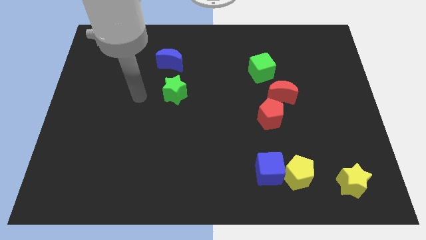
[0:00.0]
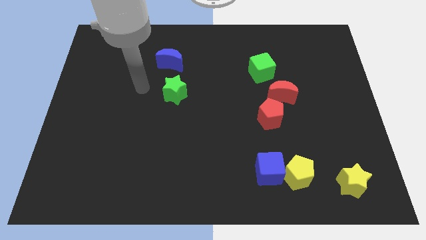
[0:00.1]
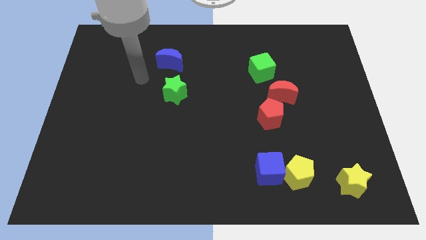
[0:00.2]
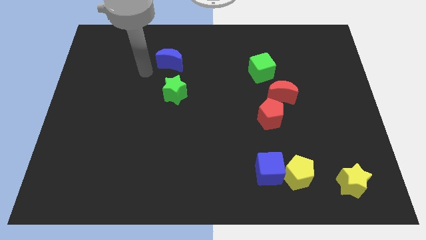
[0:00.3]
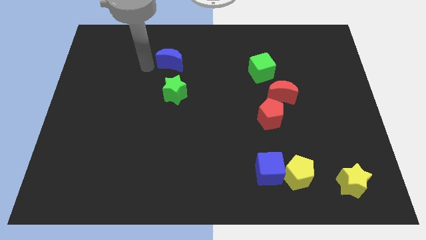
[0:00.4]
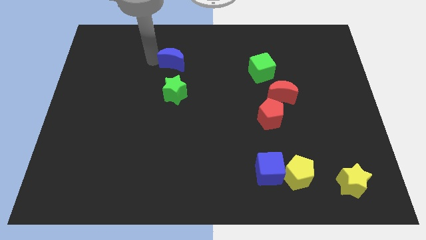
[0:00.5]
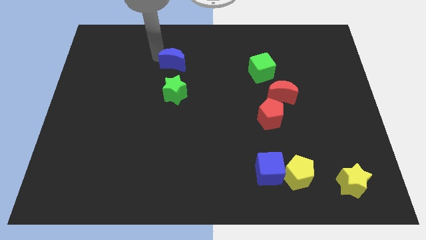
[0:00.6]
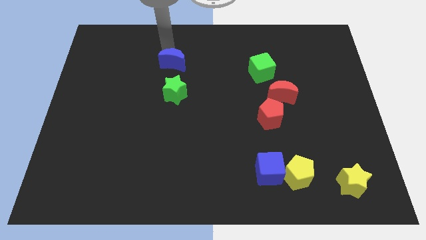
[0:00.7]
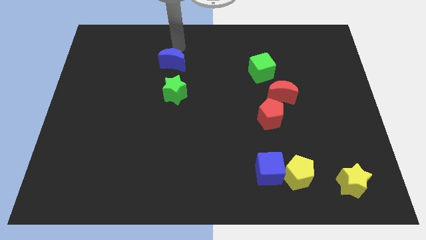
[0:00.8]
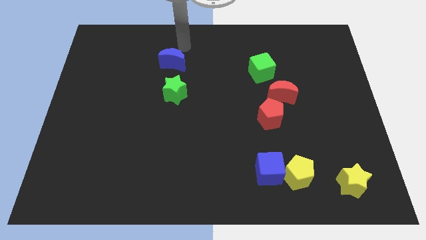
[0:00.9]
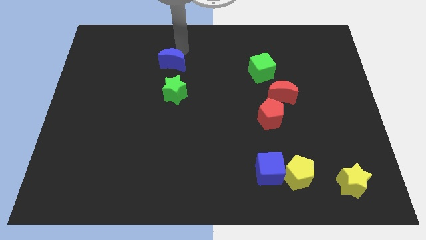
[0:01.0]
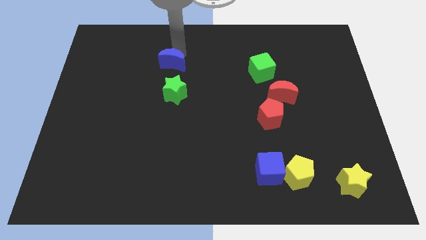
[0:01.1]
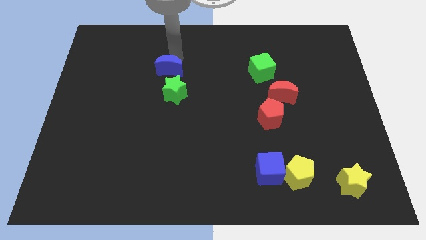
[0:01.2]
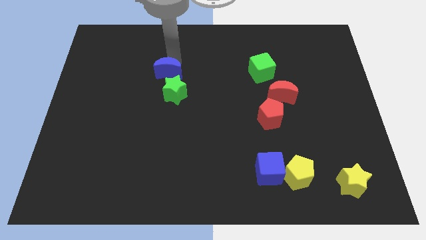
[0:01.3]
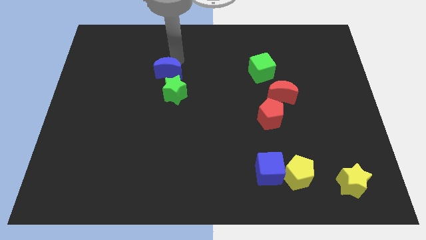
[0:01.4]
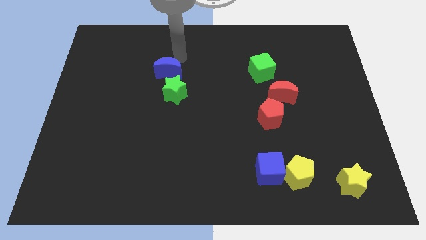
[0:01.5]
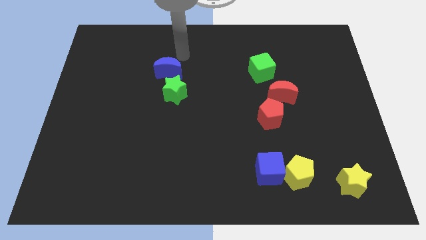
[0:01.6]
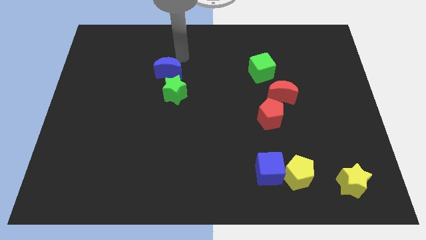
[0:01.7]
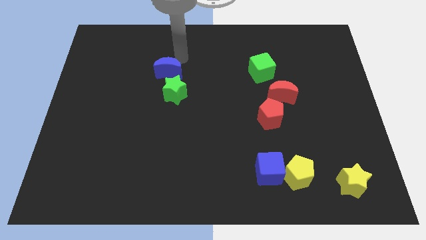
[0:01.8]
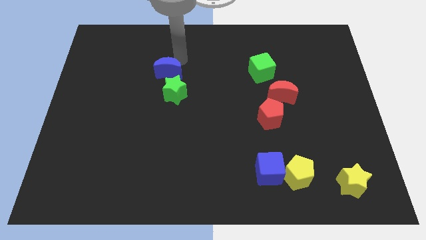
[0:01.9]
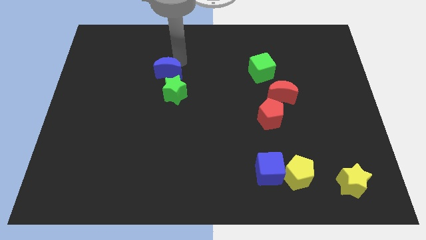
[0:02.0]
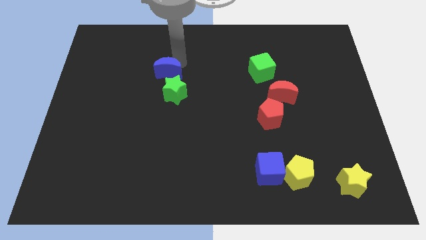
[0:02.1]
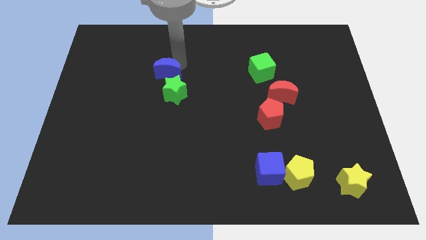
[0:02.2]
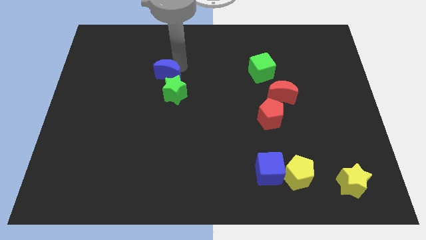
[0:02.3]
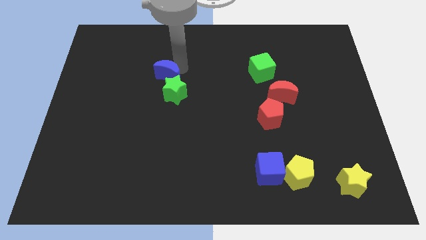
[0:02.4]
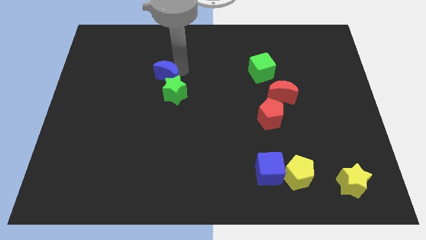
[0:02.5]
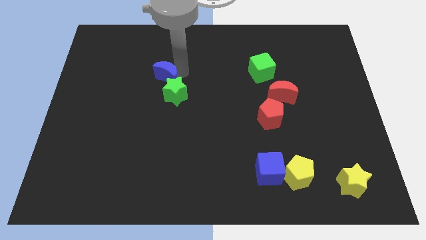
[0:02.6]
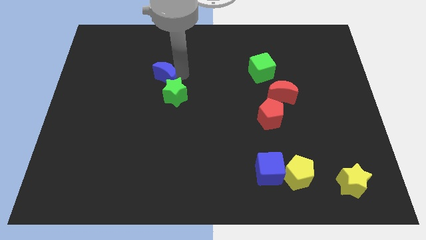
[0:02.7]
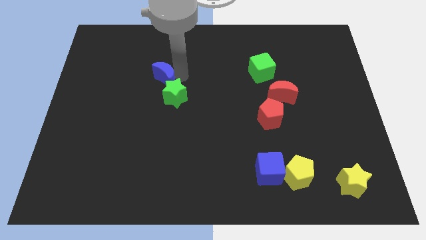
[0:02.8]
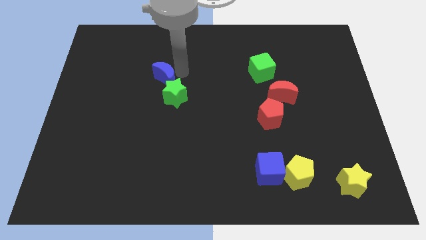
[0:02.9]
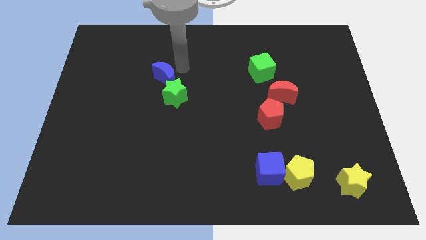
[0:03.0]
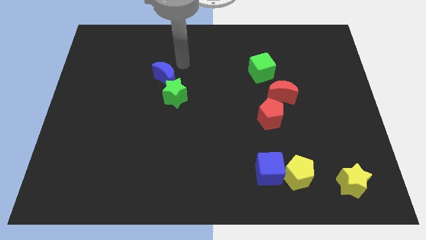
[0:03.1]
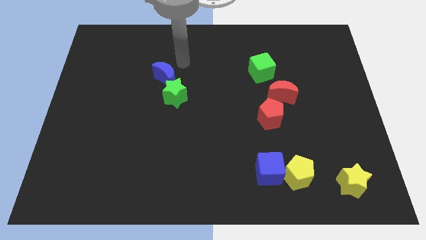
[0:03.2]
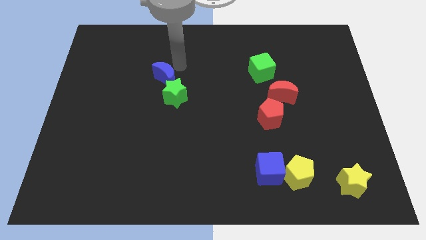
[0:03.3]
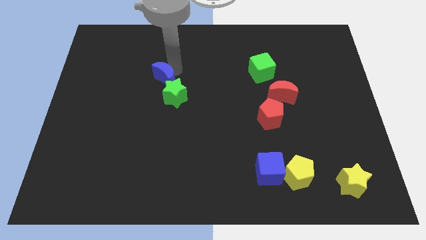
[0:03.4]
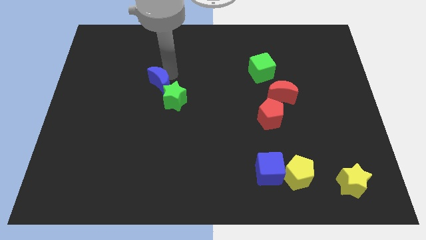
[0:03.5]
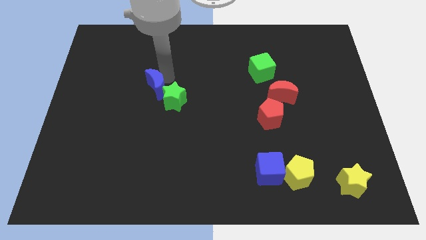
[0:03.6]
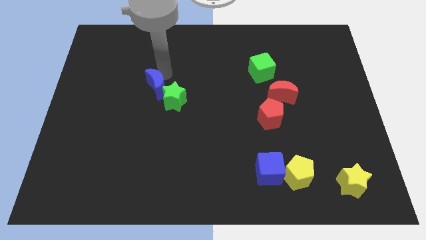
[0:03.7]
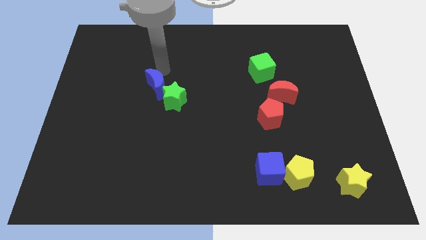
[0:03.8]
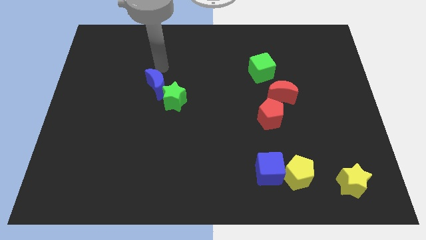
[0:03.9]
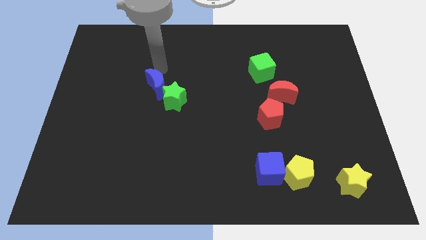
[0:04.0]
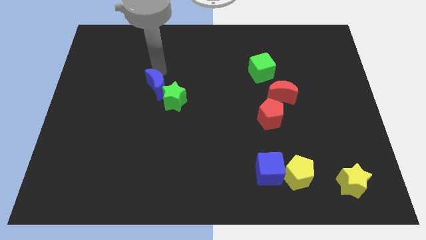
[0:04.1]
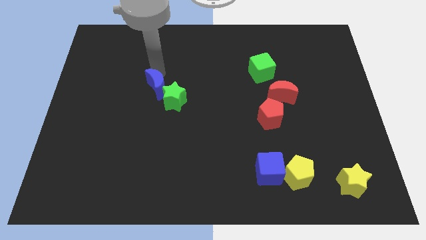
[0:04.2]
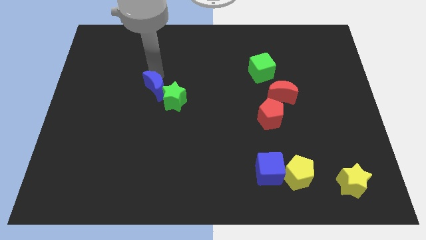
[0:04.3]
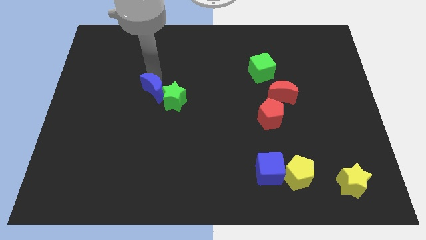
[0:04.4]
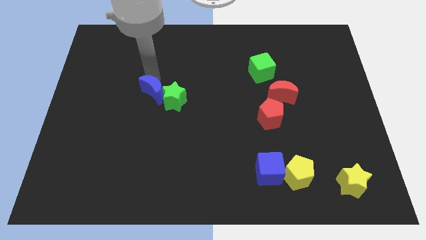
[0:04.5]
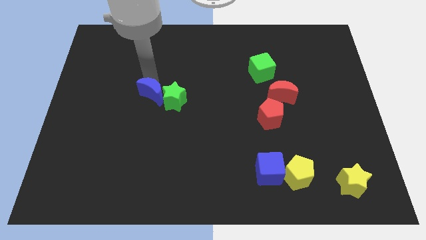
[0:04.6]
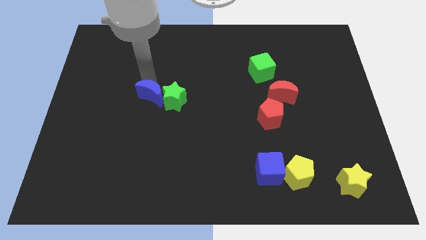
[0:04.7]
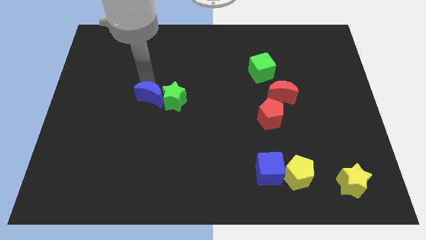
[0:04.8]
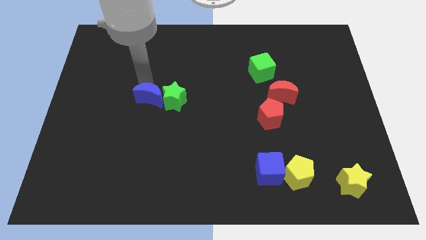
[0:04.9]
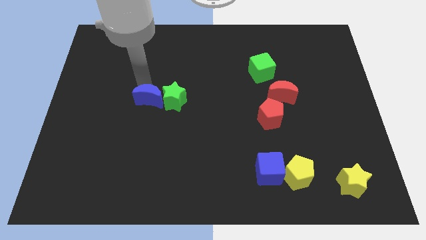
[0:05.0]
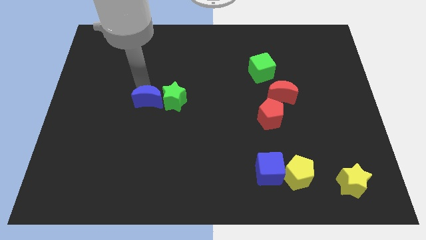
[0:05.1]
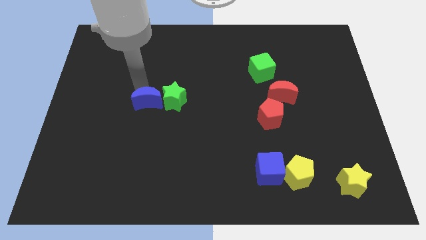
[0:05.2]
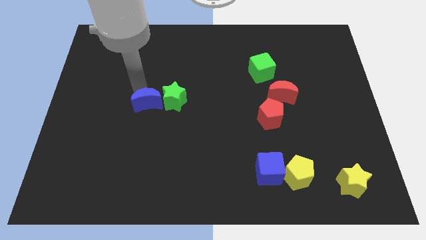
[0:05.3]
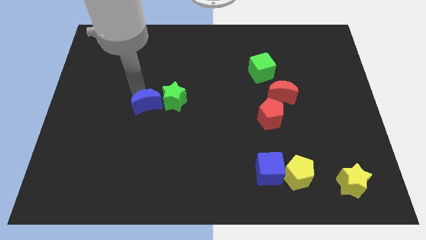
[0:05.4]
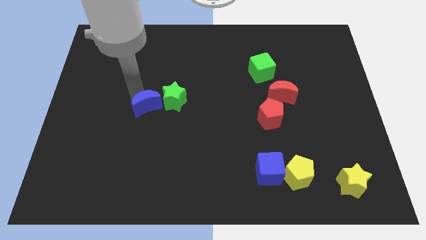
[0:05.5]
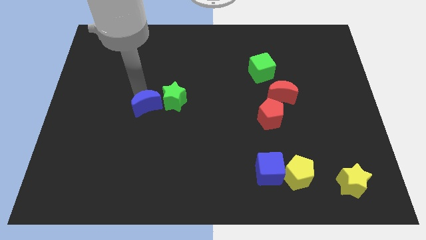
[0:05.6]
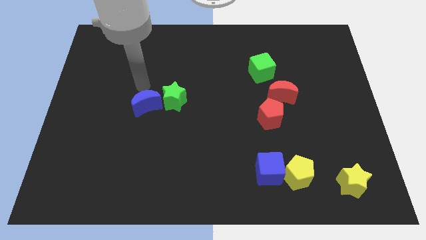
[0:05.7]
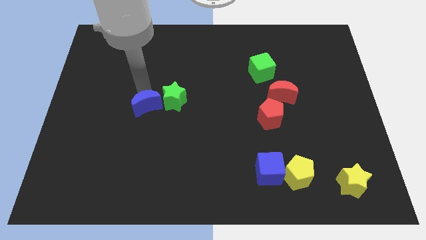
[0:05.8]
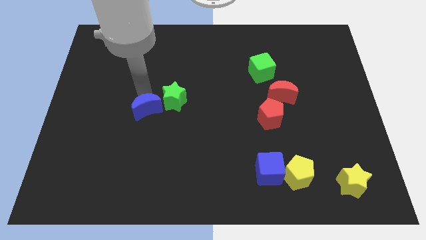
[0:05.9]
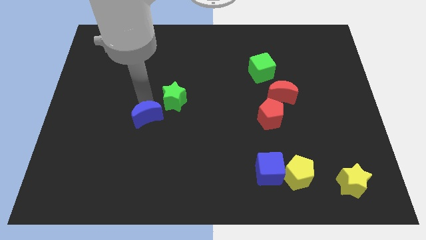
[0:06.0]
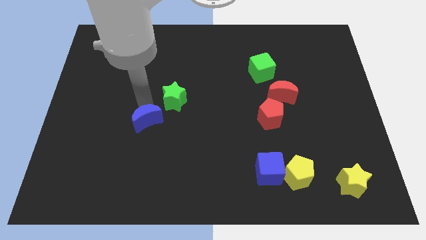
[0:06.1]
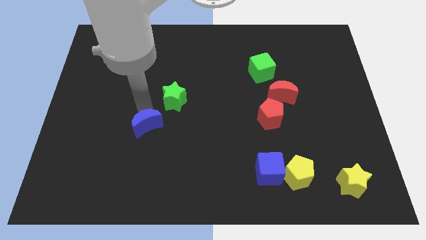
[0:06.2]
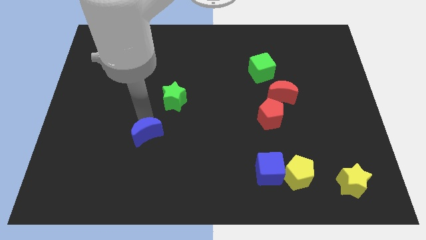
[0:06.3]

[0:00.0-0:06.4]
push the blue moon downwards

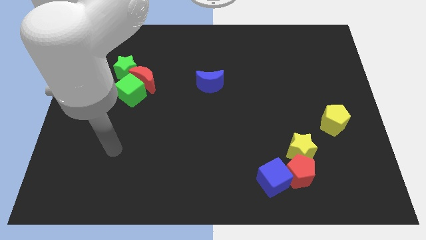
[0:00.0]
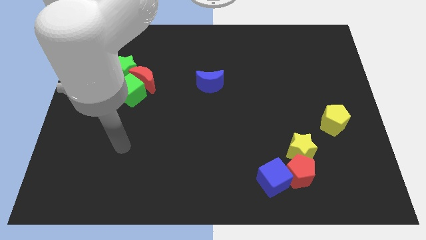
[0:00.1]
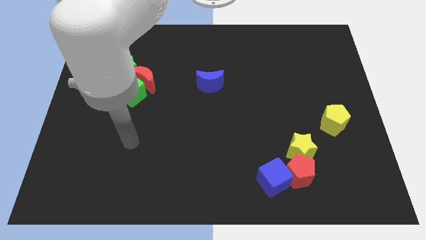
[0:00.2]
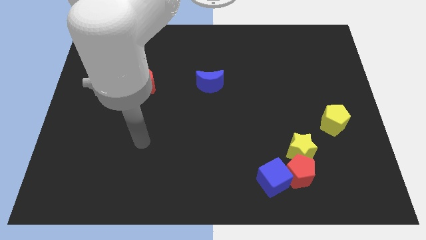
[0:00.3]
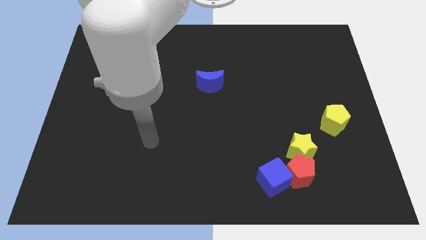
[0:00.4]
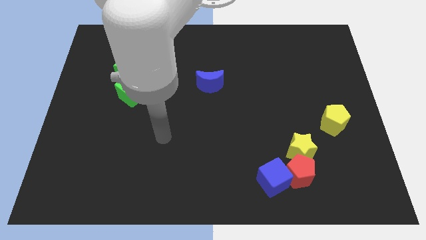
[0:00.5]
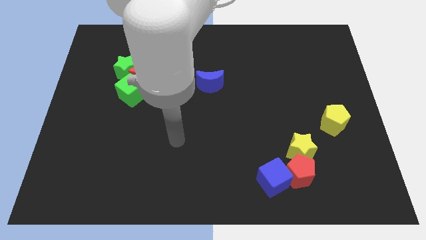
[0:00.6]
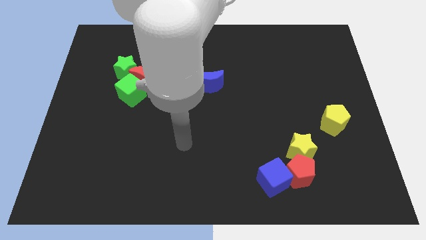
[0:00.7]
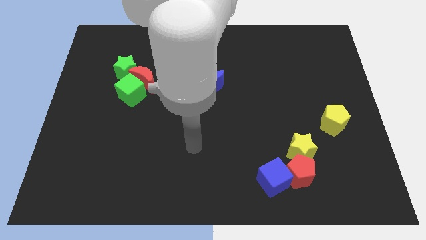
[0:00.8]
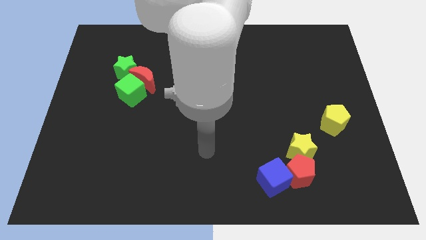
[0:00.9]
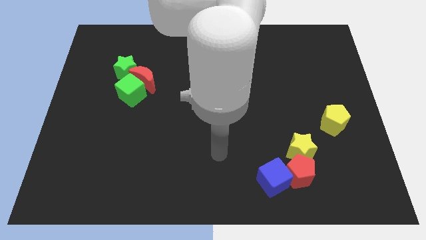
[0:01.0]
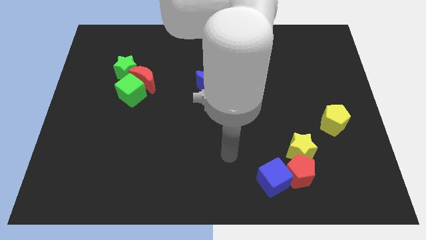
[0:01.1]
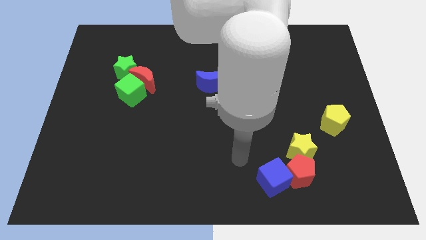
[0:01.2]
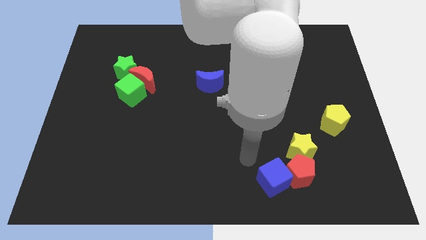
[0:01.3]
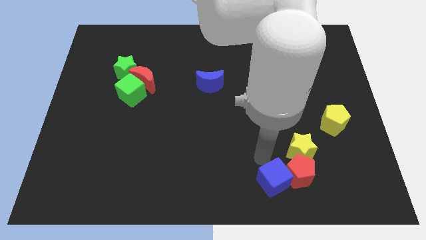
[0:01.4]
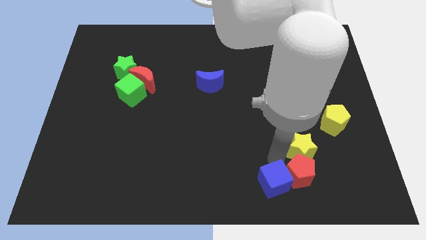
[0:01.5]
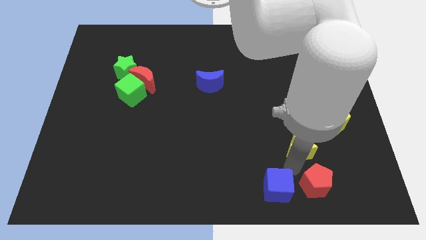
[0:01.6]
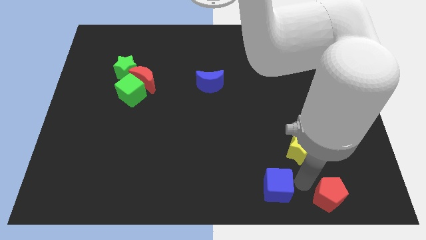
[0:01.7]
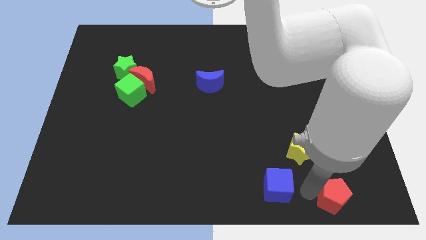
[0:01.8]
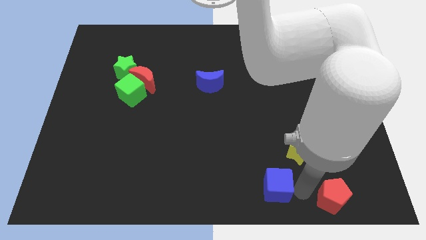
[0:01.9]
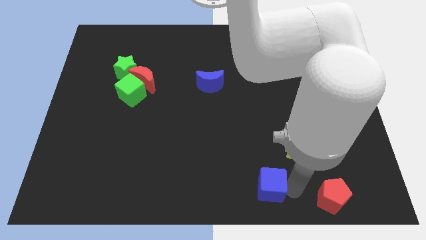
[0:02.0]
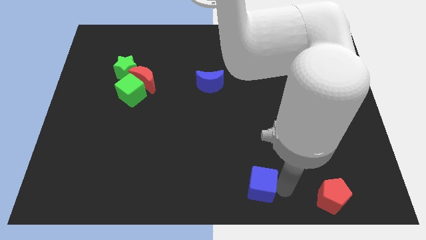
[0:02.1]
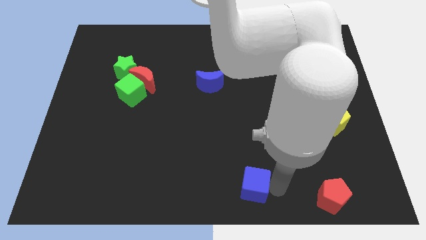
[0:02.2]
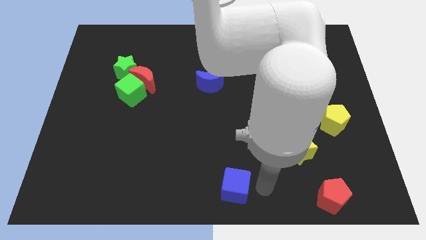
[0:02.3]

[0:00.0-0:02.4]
slide the blue cube a little bit left
